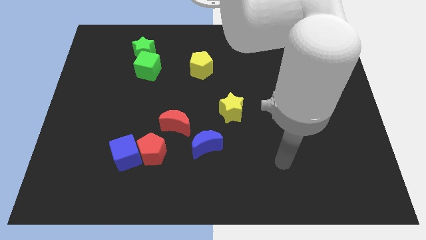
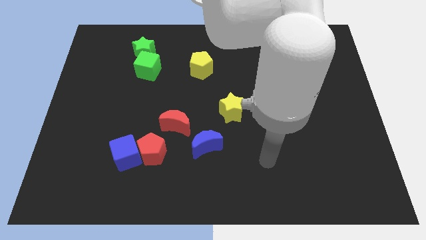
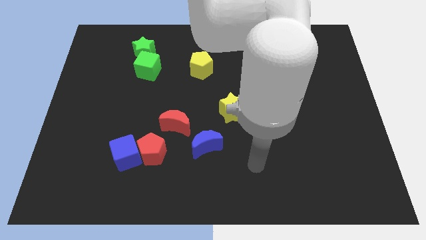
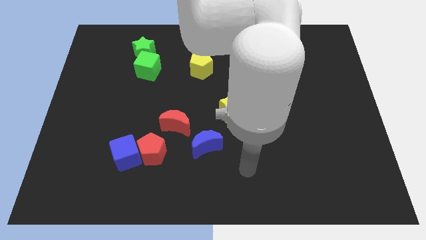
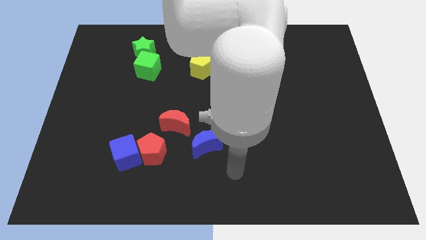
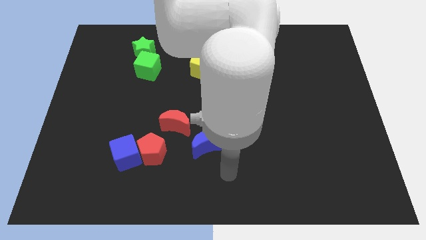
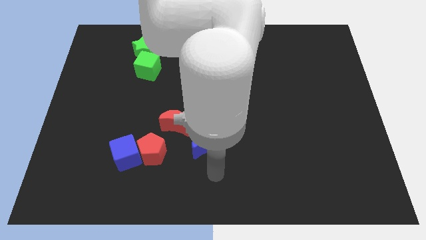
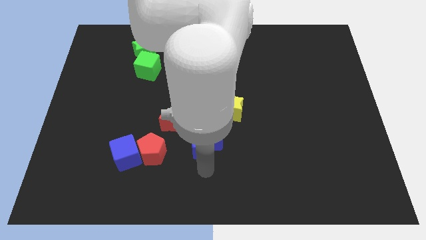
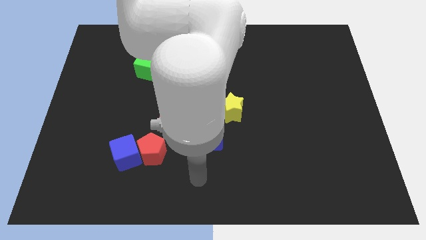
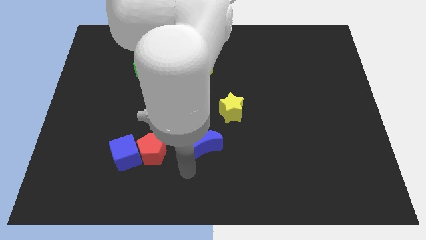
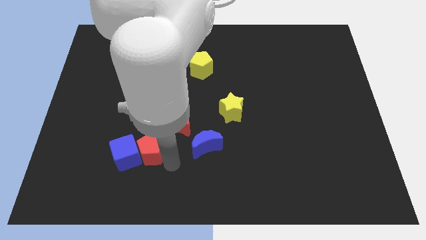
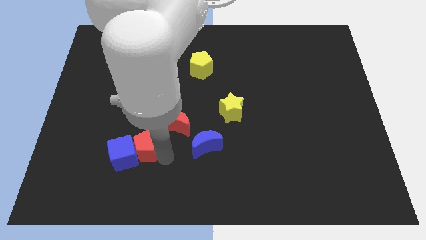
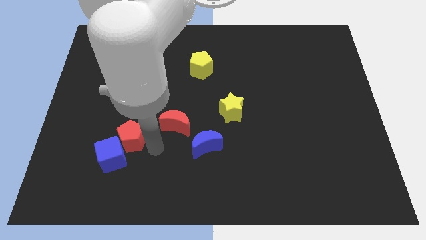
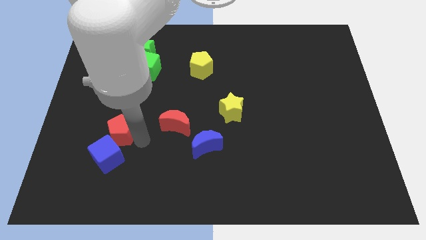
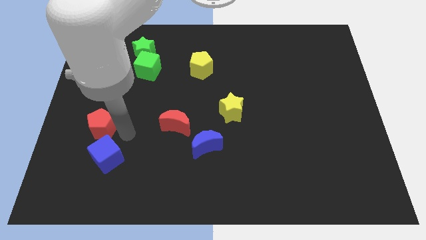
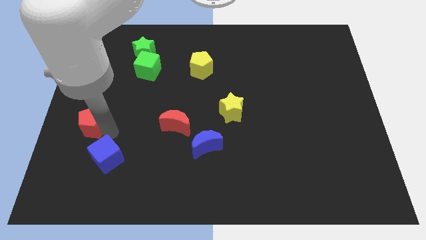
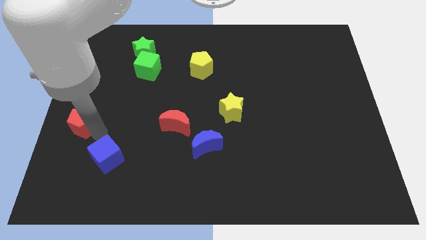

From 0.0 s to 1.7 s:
separate the blue cube from the red pentagon

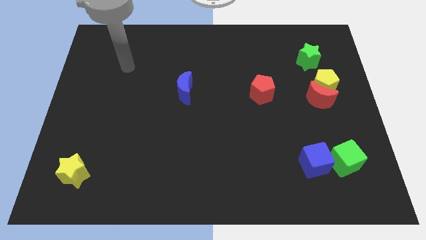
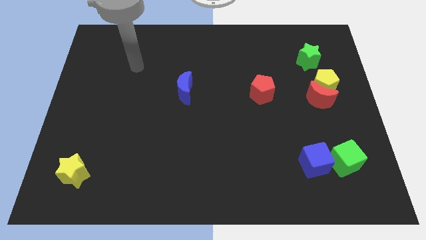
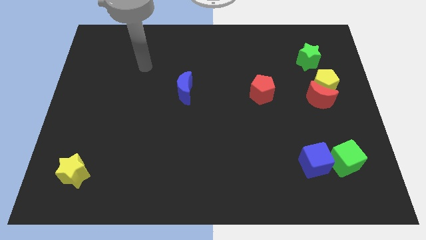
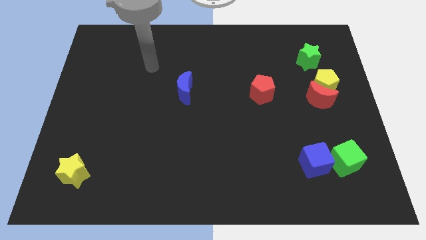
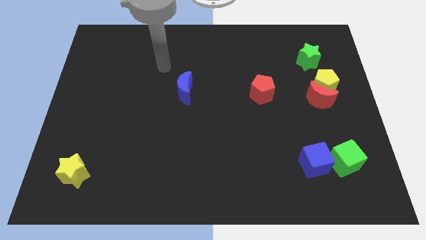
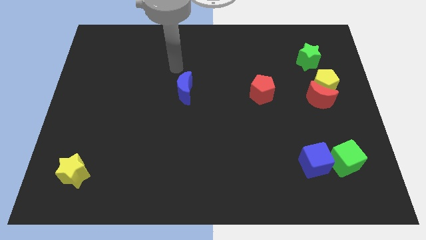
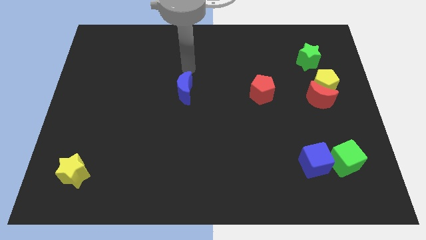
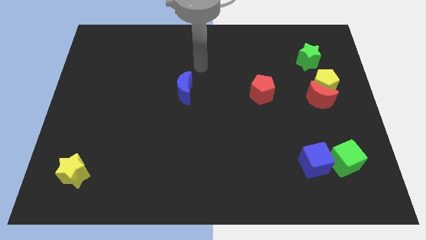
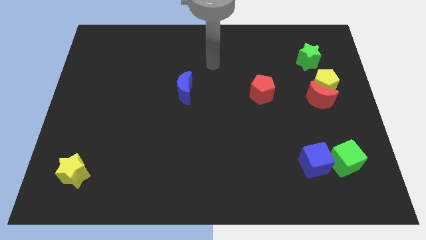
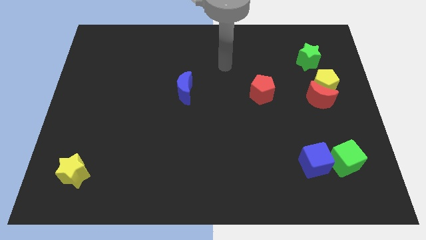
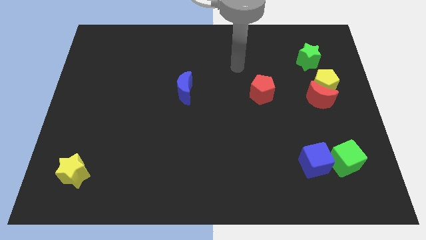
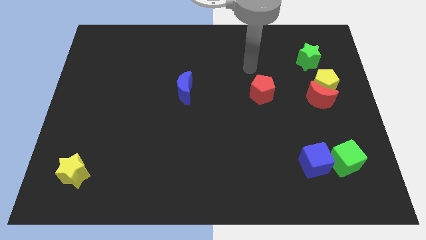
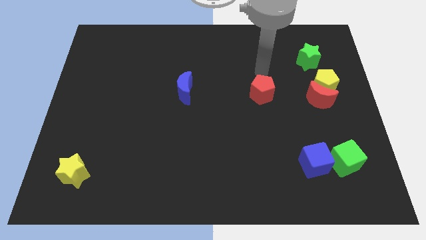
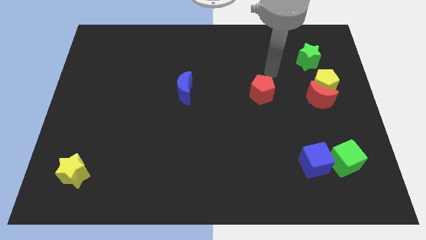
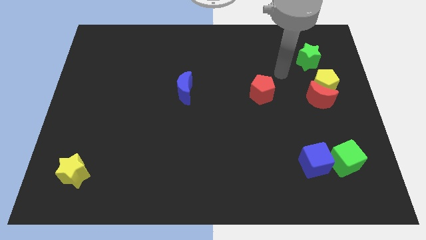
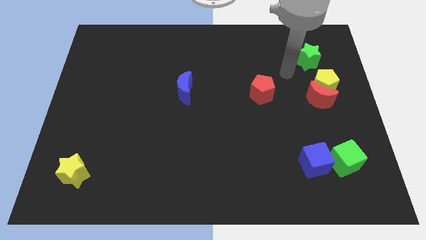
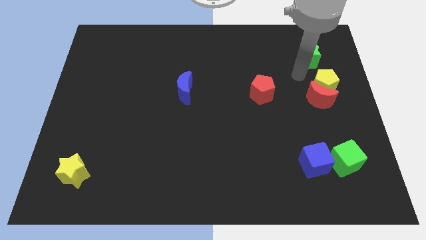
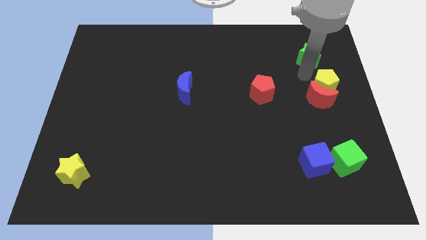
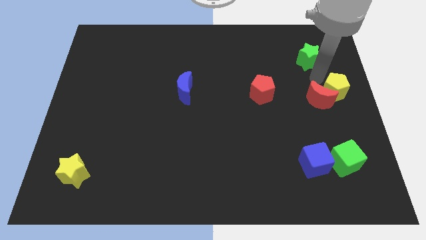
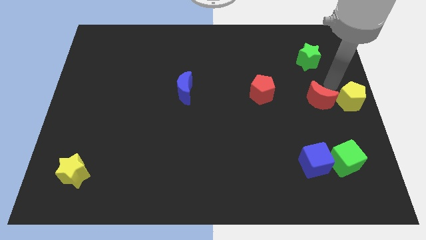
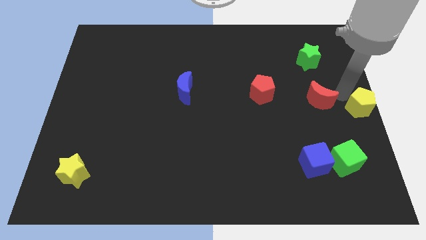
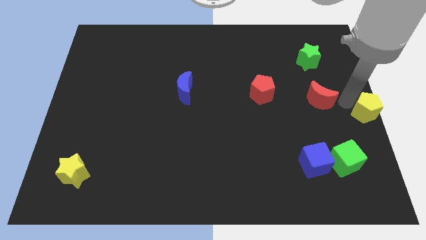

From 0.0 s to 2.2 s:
pull the red moon apart from the yellow pentagon

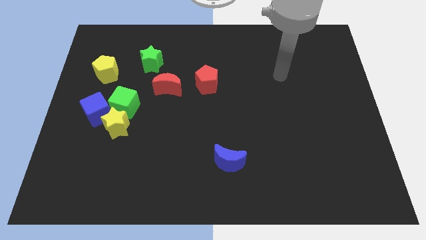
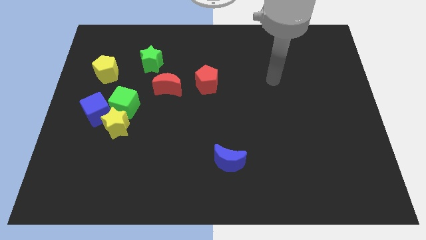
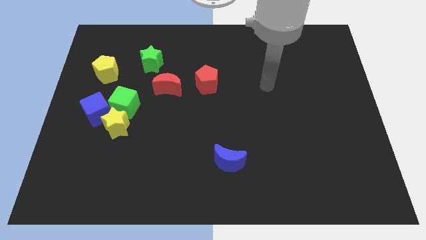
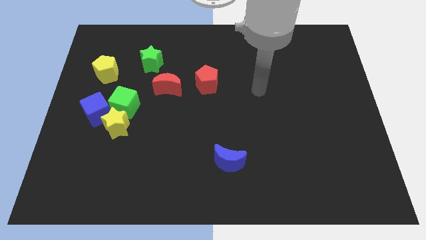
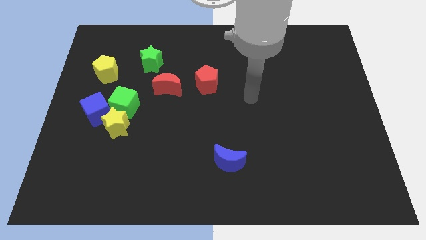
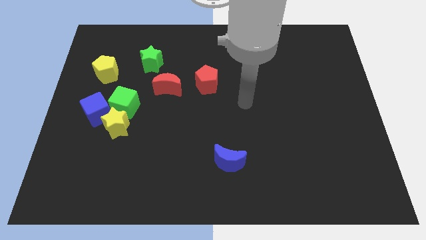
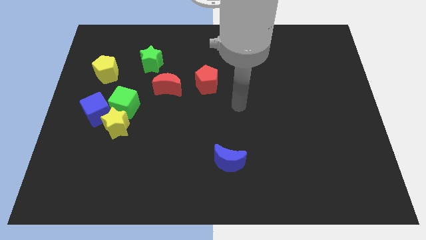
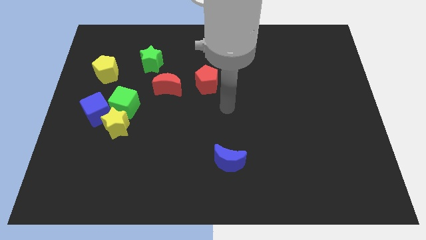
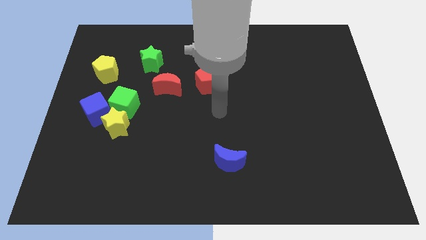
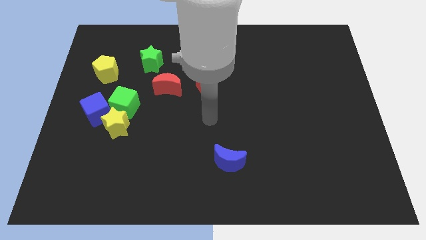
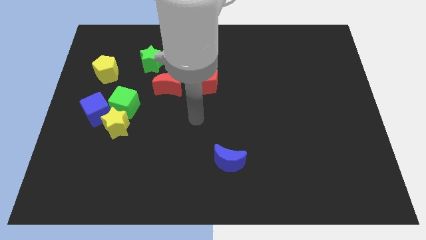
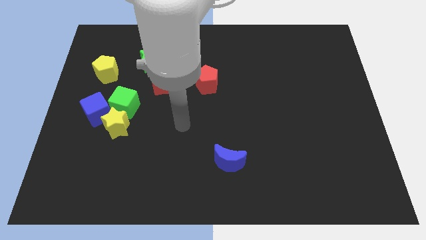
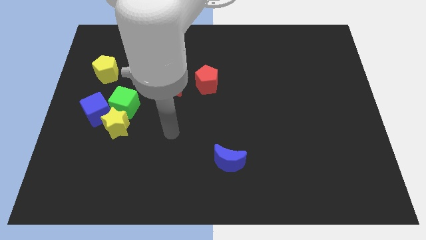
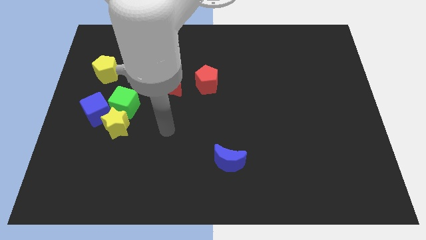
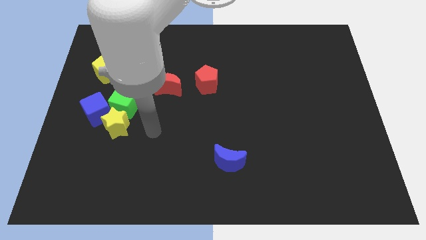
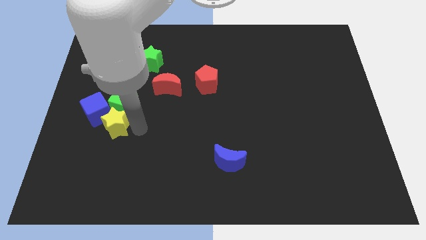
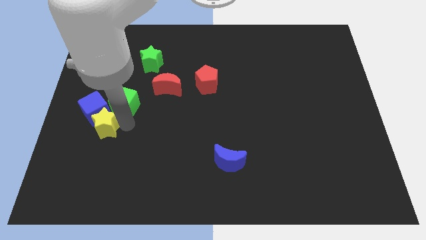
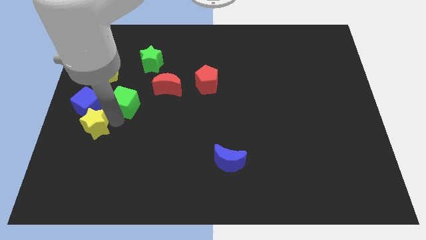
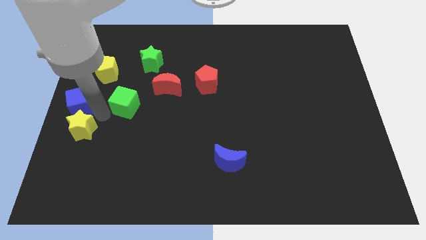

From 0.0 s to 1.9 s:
move the green cube away from the yellow star and blue cube

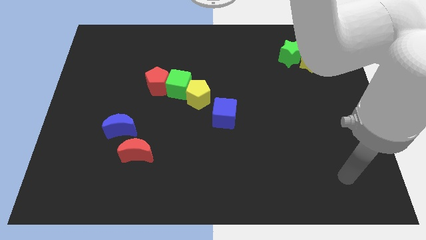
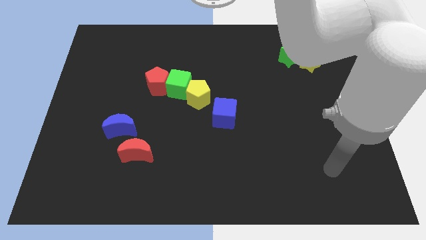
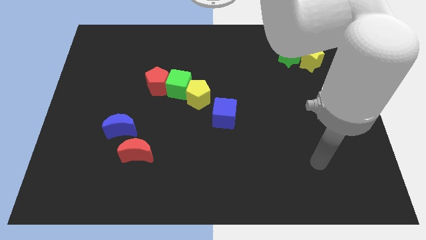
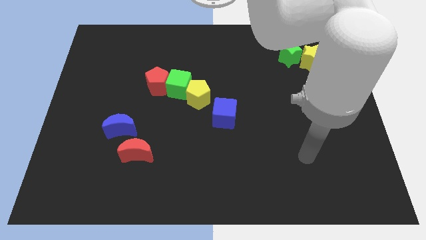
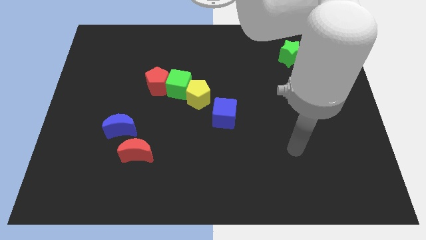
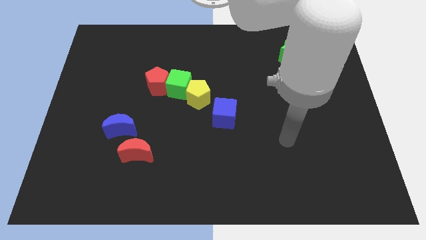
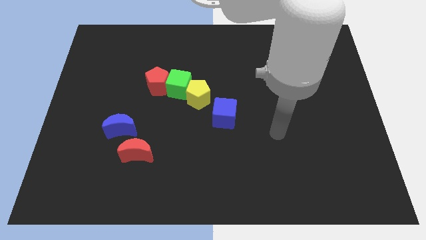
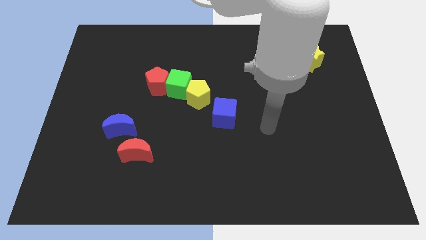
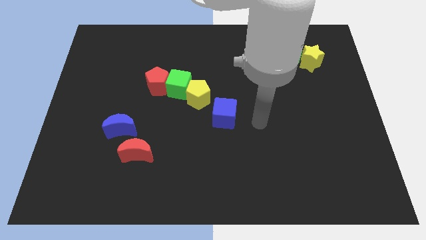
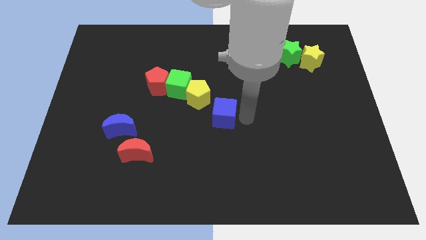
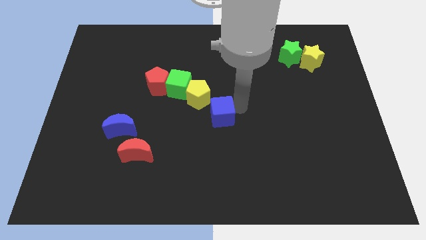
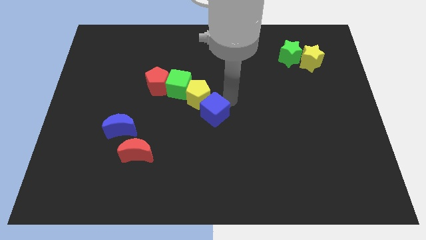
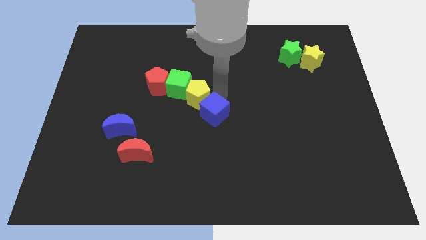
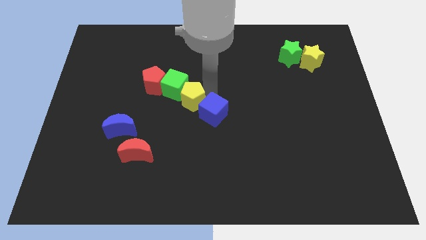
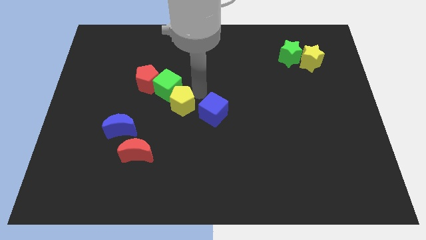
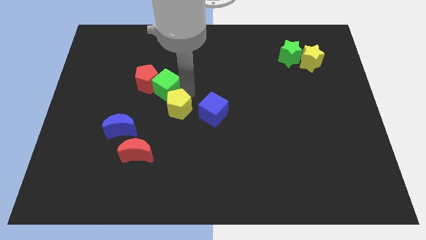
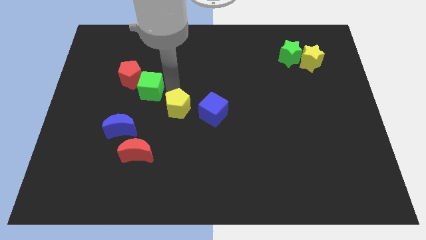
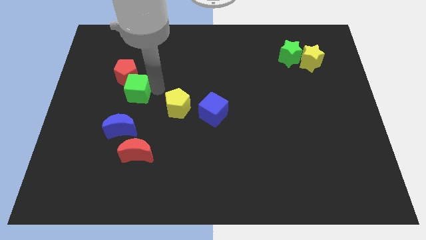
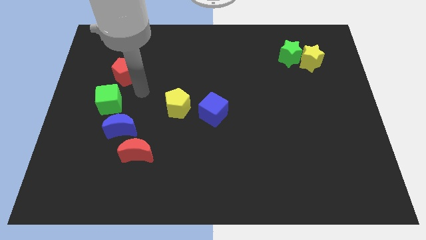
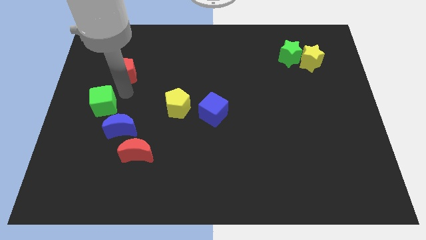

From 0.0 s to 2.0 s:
move the red pentagon away from the green cube

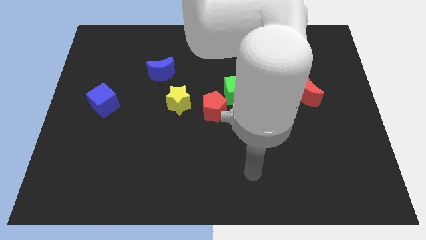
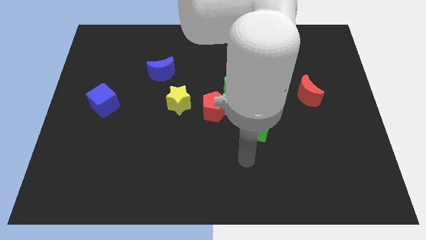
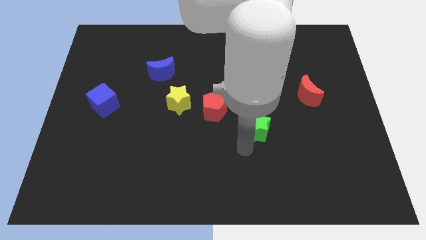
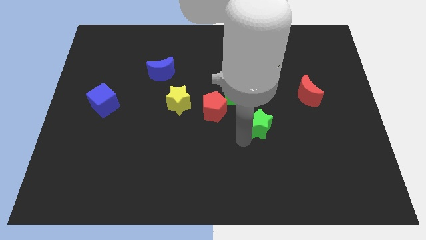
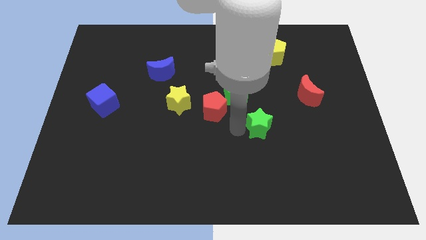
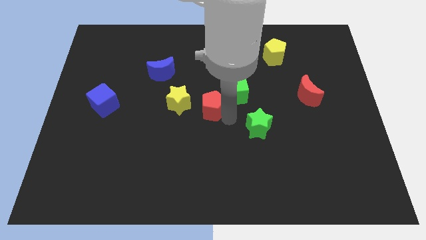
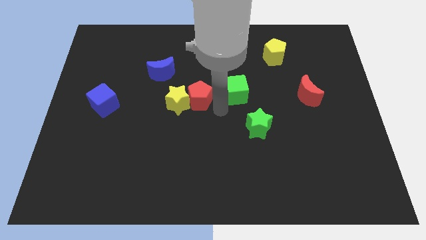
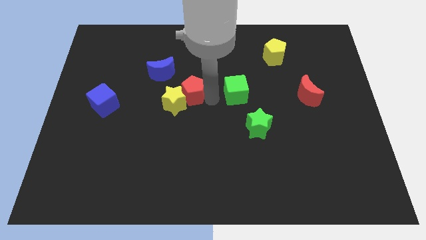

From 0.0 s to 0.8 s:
move the green cube away from the red pentagon

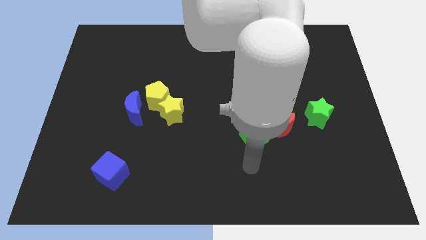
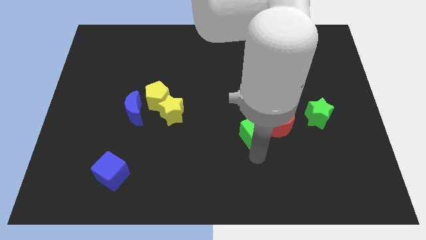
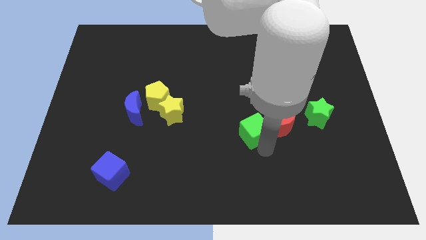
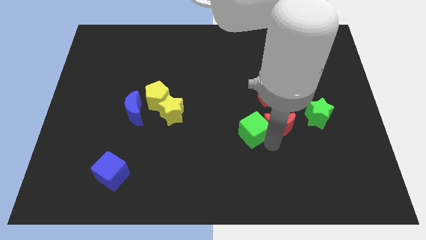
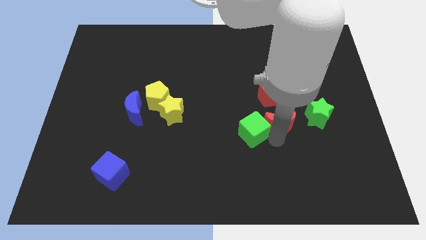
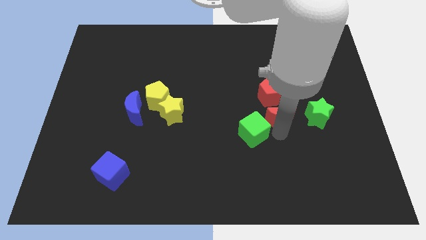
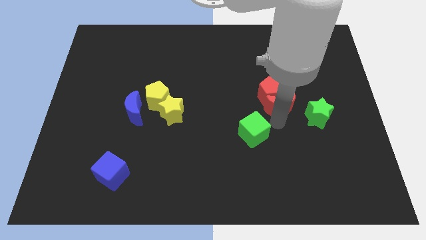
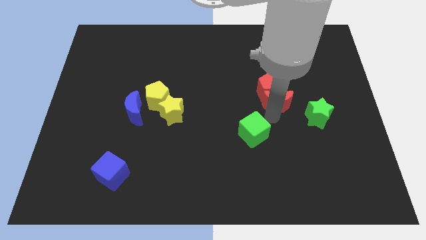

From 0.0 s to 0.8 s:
pull the green cube apart from the red moon
